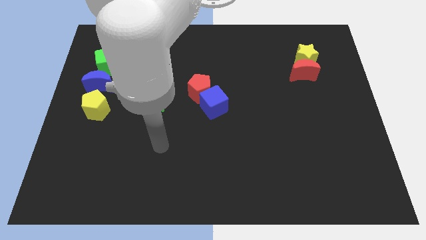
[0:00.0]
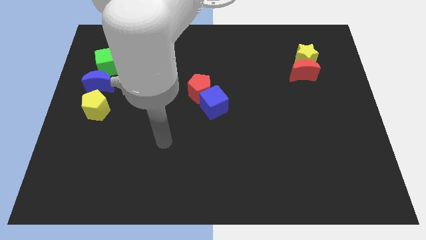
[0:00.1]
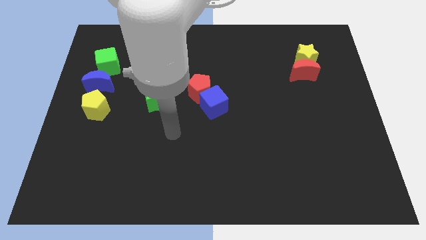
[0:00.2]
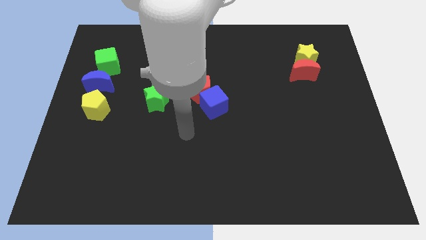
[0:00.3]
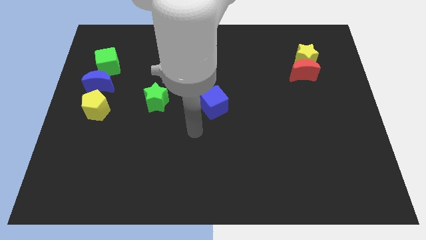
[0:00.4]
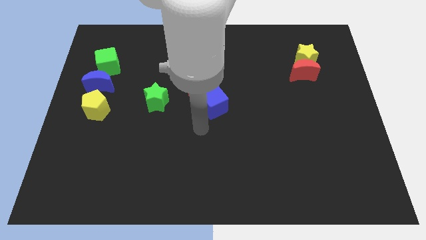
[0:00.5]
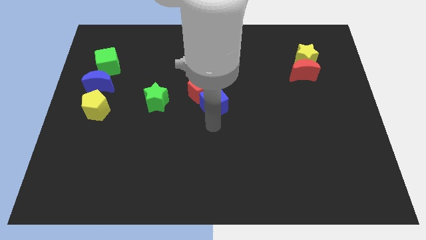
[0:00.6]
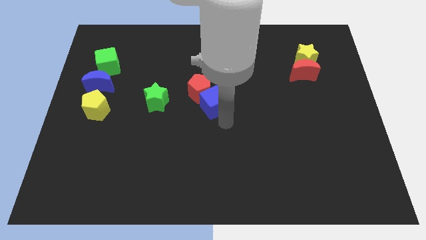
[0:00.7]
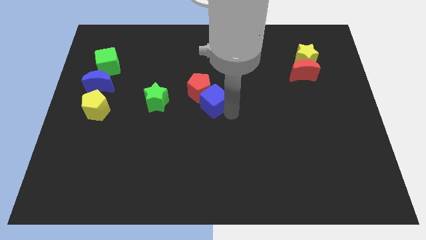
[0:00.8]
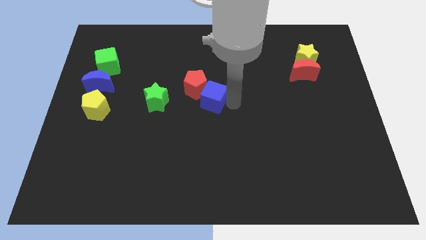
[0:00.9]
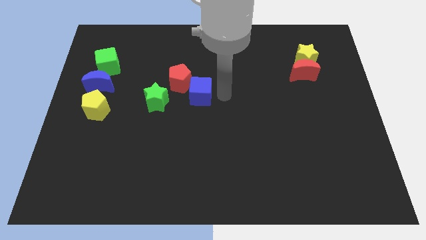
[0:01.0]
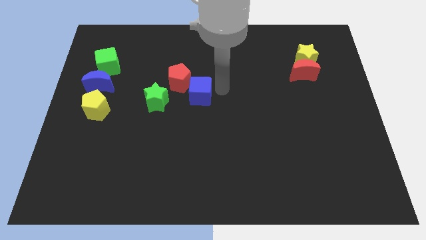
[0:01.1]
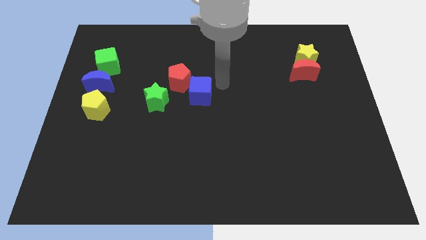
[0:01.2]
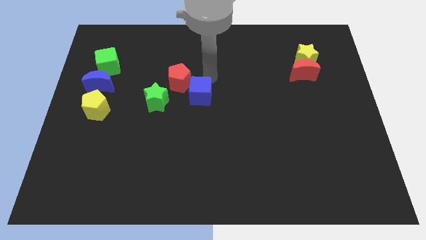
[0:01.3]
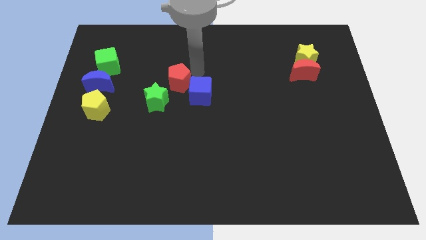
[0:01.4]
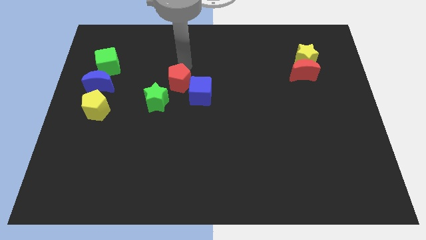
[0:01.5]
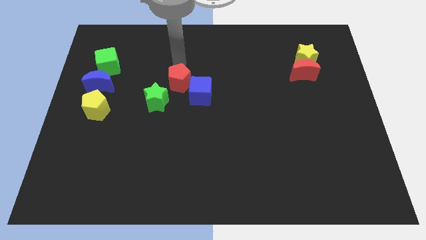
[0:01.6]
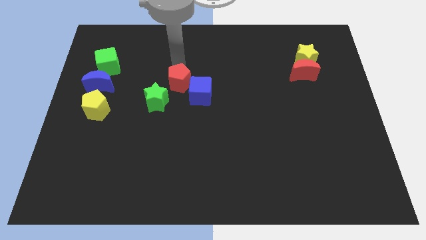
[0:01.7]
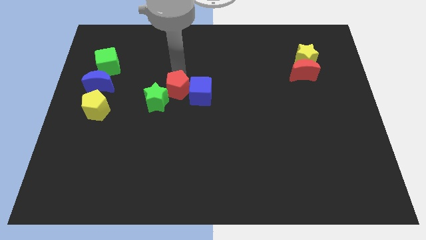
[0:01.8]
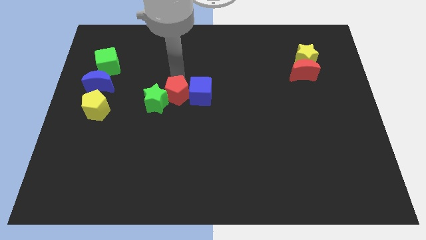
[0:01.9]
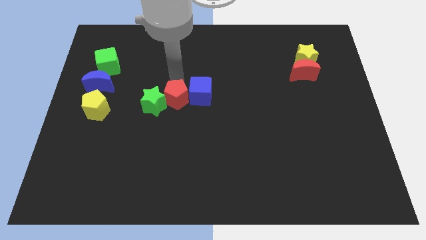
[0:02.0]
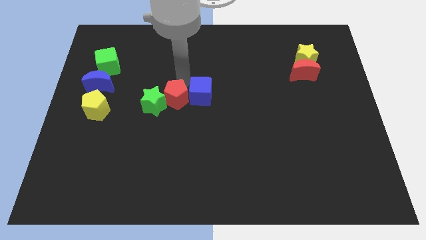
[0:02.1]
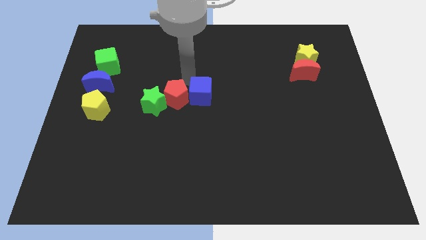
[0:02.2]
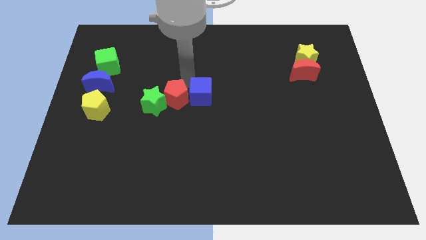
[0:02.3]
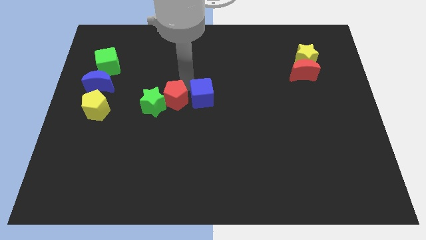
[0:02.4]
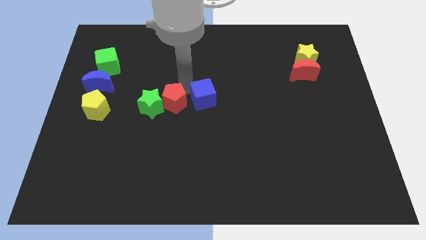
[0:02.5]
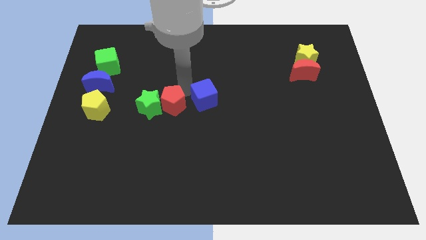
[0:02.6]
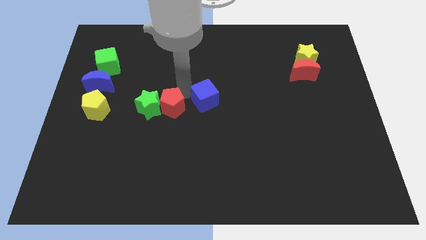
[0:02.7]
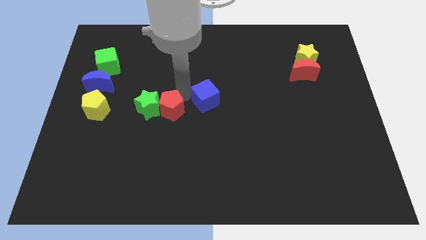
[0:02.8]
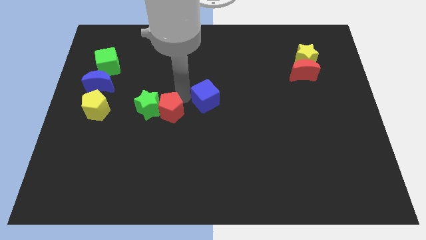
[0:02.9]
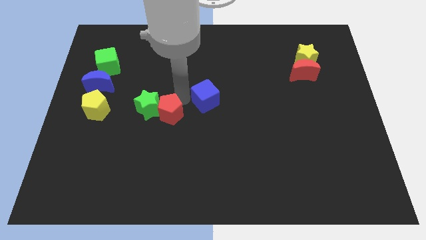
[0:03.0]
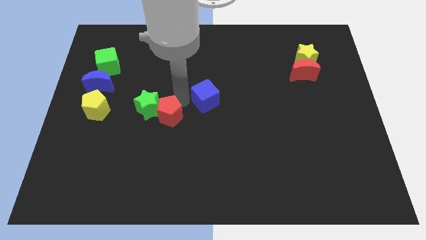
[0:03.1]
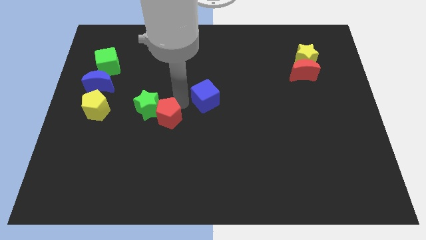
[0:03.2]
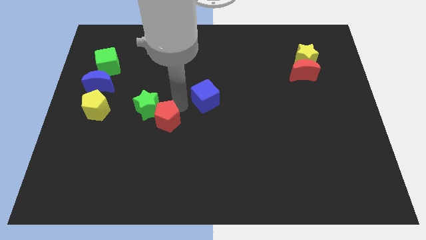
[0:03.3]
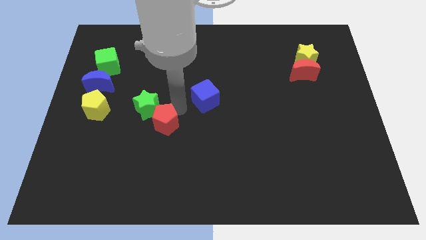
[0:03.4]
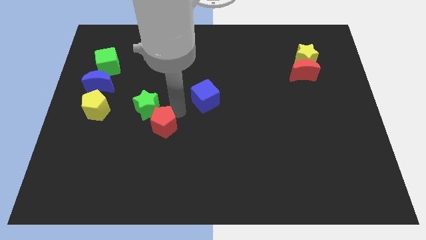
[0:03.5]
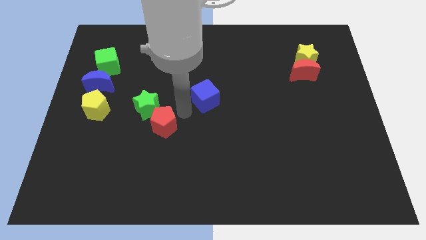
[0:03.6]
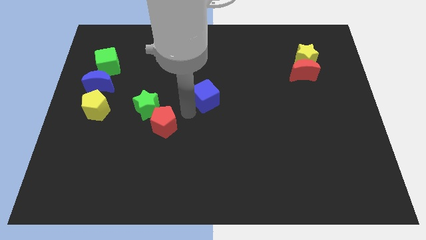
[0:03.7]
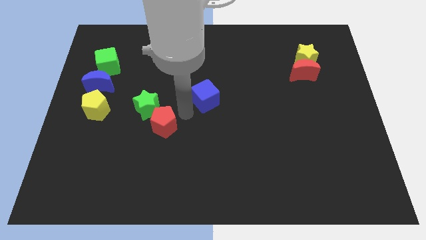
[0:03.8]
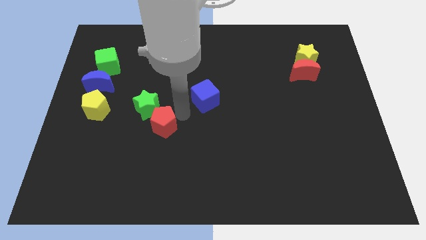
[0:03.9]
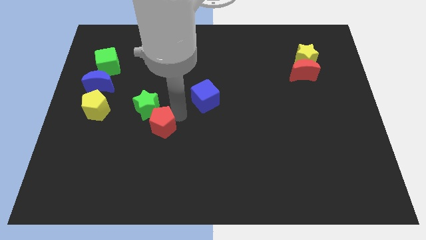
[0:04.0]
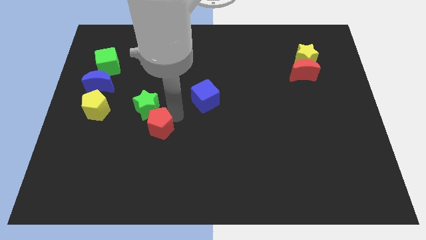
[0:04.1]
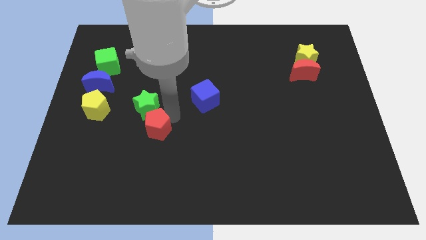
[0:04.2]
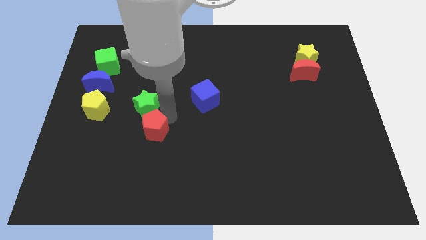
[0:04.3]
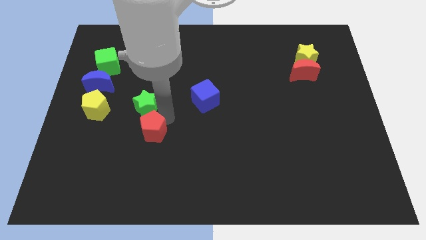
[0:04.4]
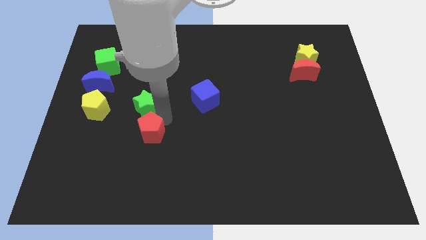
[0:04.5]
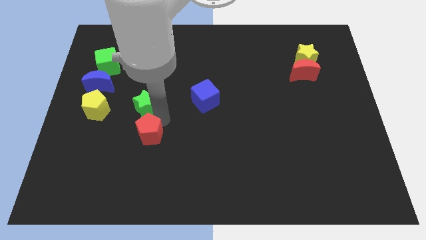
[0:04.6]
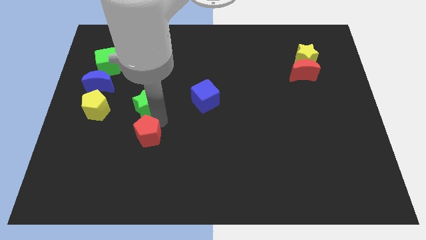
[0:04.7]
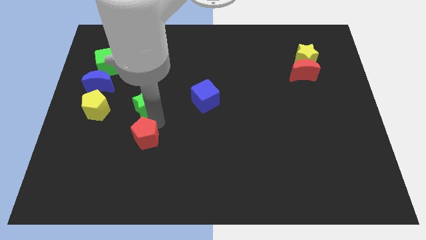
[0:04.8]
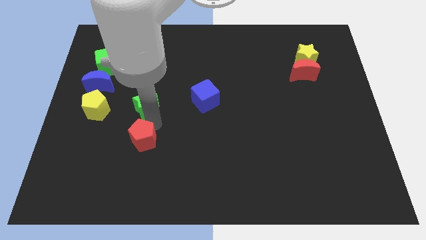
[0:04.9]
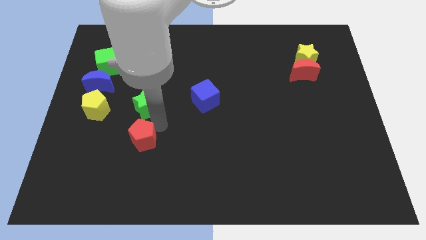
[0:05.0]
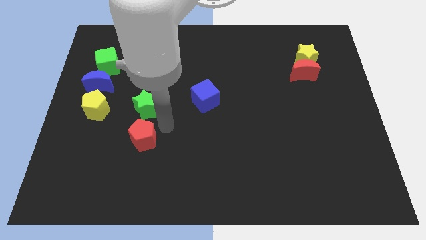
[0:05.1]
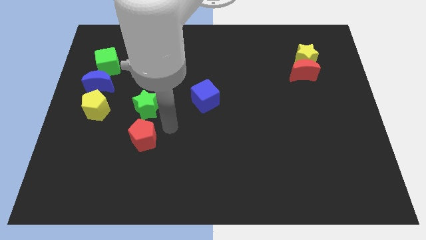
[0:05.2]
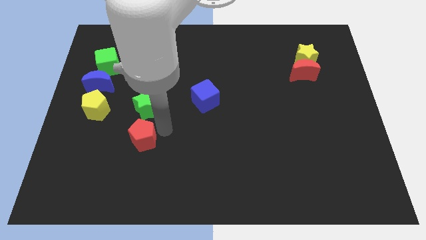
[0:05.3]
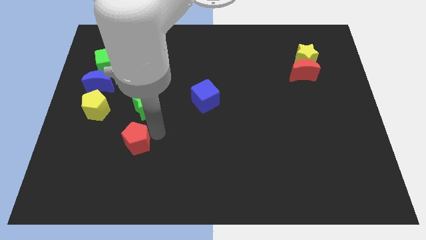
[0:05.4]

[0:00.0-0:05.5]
push the red pentagon diagonally downwards and to the left

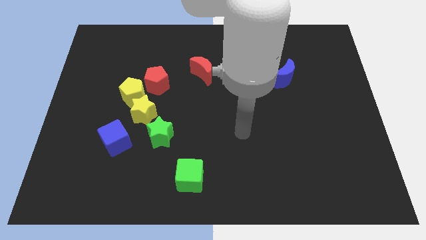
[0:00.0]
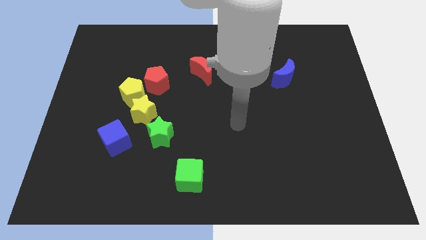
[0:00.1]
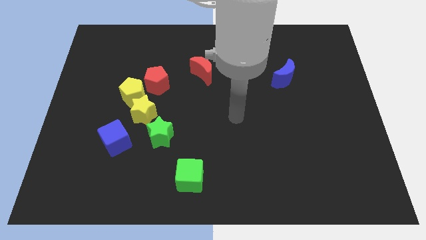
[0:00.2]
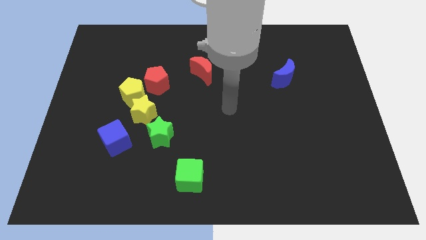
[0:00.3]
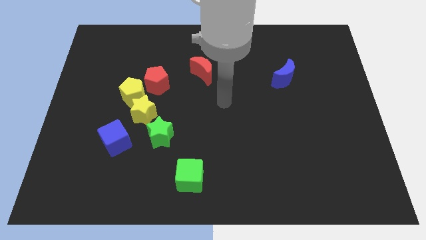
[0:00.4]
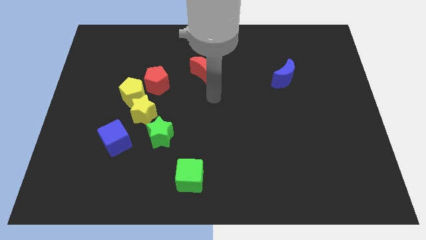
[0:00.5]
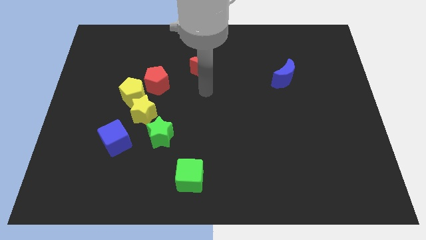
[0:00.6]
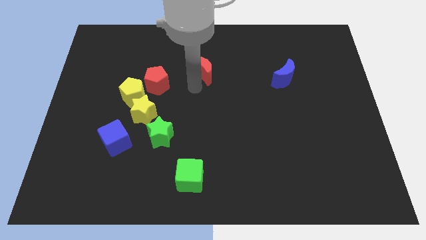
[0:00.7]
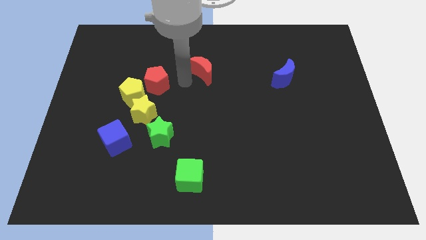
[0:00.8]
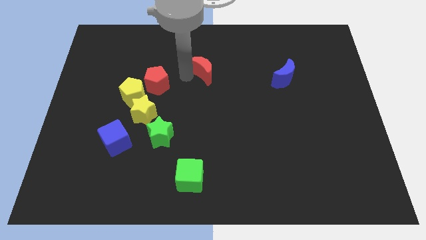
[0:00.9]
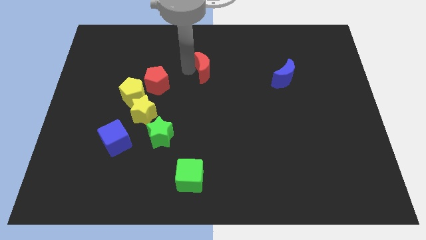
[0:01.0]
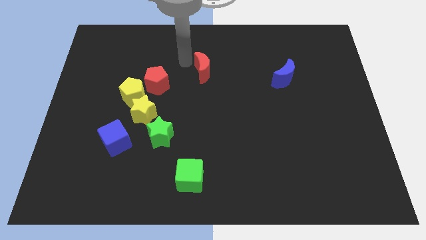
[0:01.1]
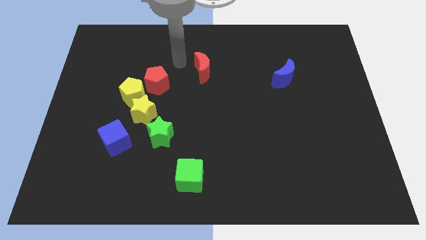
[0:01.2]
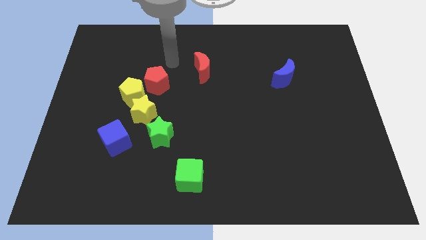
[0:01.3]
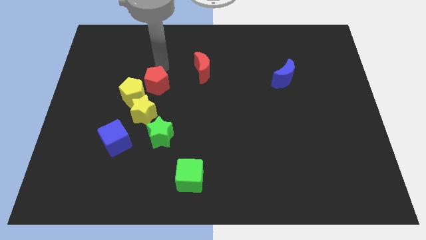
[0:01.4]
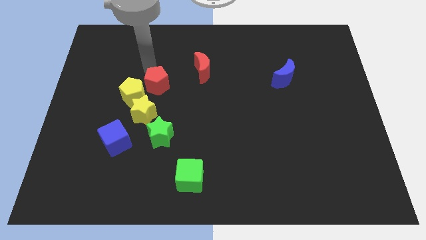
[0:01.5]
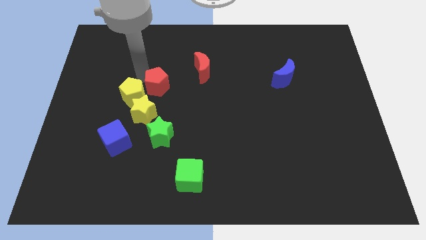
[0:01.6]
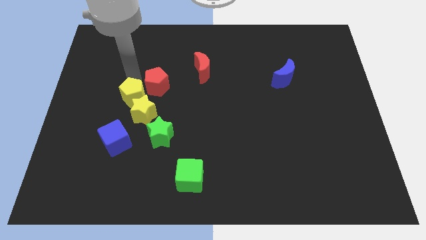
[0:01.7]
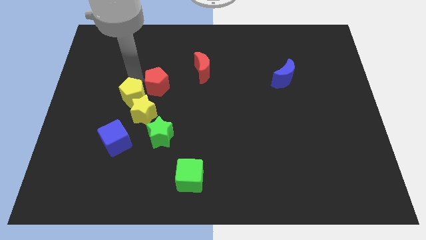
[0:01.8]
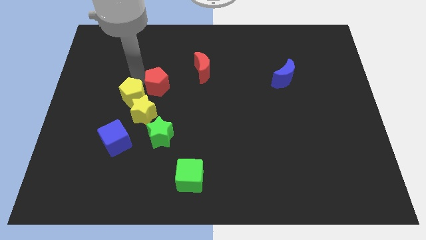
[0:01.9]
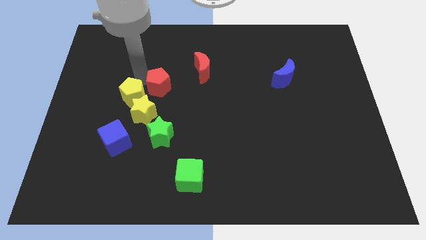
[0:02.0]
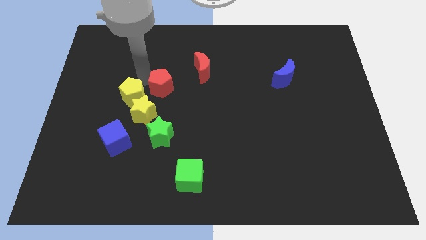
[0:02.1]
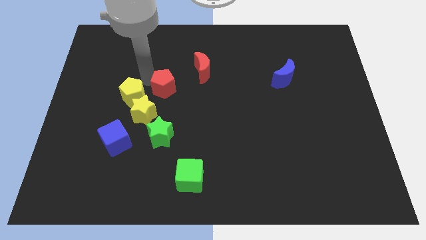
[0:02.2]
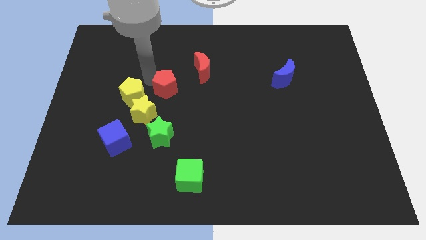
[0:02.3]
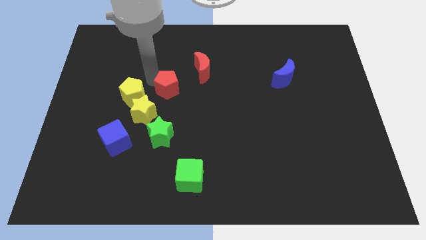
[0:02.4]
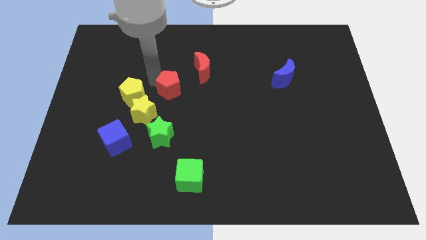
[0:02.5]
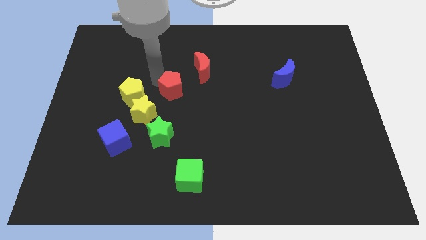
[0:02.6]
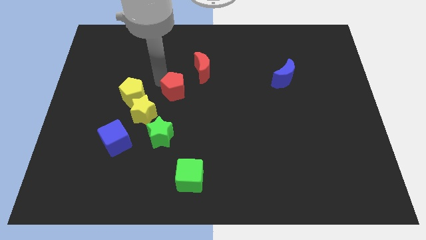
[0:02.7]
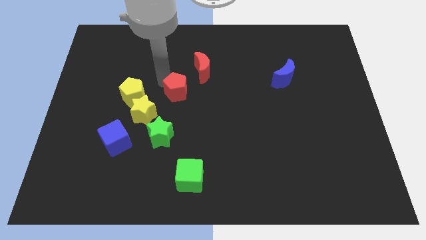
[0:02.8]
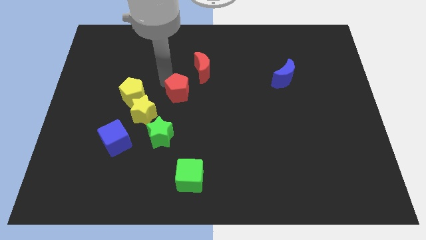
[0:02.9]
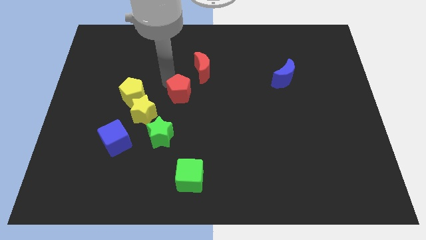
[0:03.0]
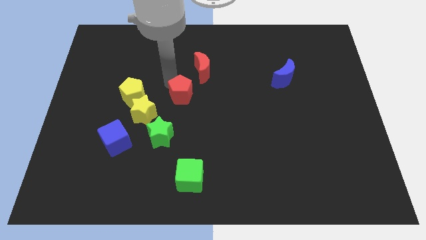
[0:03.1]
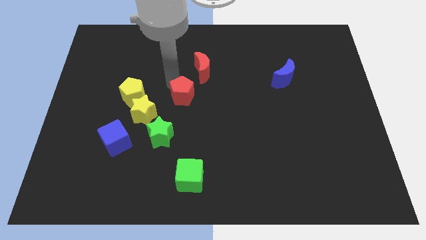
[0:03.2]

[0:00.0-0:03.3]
move the red pentagon down and then to the right a bit
